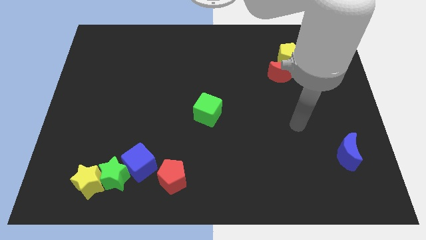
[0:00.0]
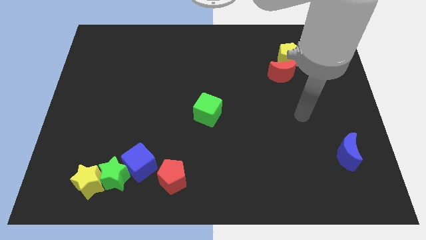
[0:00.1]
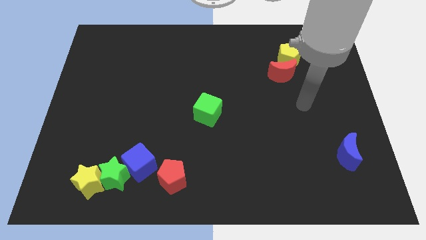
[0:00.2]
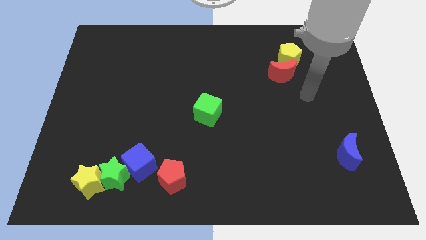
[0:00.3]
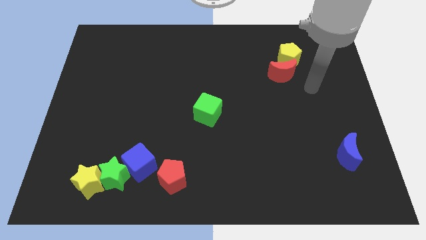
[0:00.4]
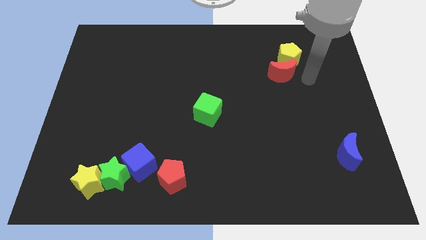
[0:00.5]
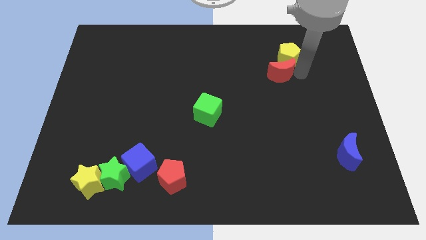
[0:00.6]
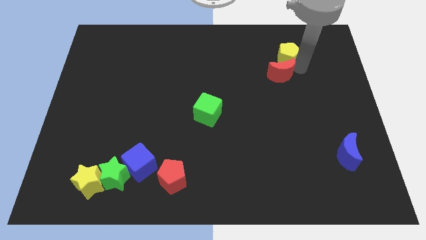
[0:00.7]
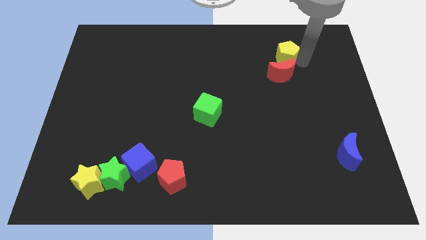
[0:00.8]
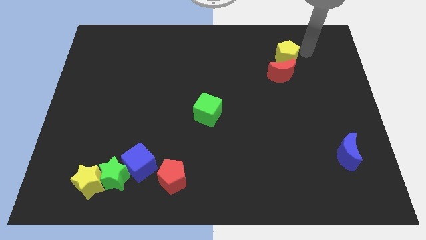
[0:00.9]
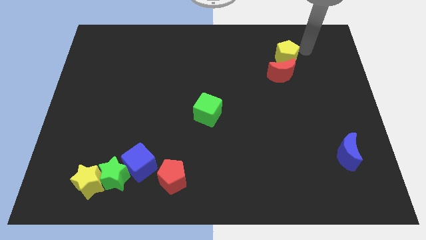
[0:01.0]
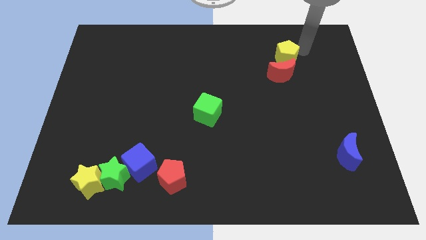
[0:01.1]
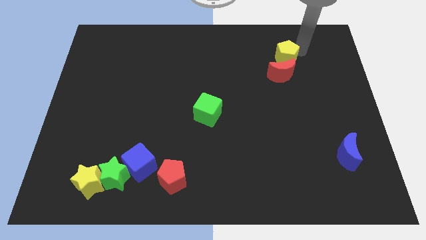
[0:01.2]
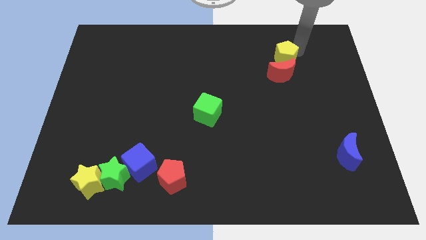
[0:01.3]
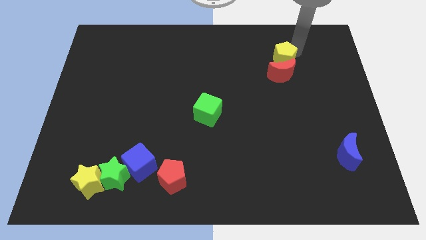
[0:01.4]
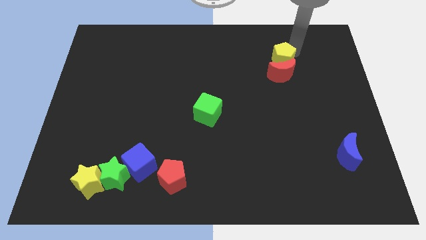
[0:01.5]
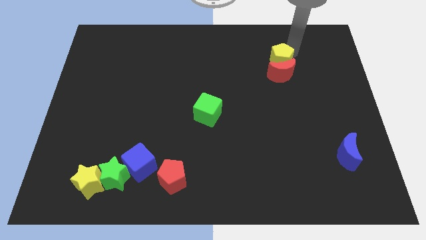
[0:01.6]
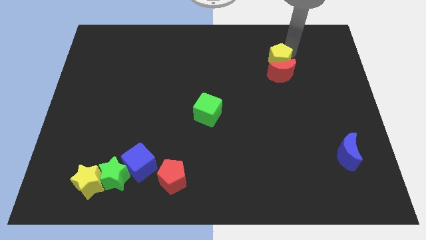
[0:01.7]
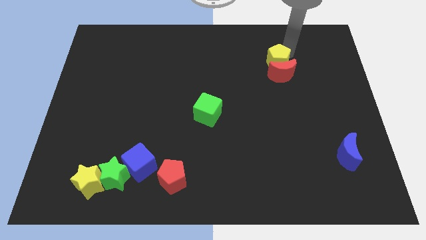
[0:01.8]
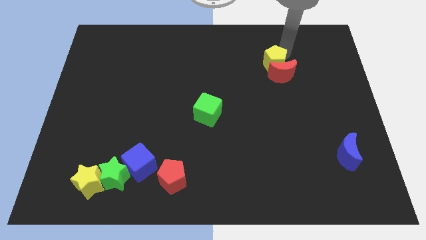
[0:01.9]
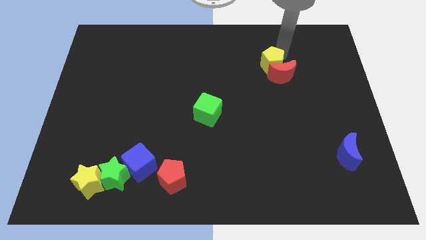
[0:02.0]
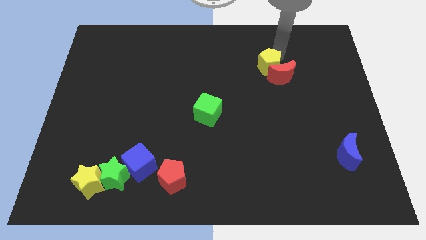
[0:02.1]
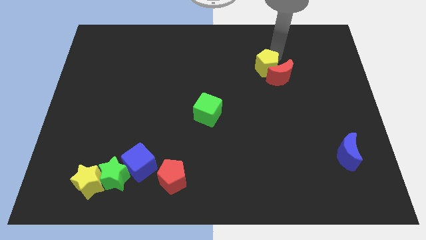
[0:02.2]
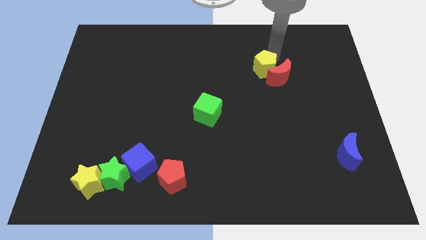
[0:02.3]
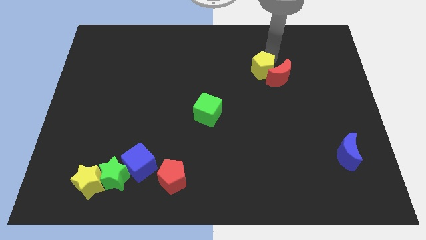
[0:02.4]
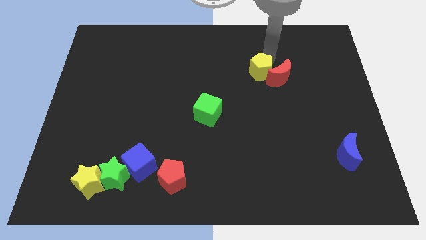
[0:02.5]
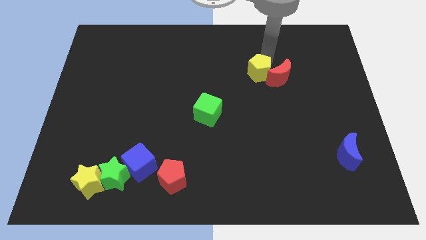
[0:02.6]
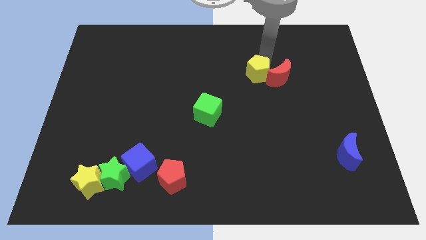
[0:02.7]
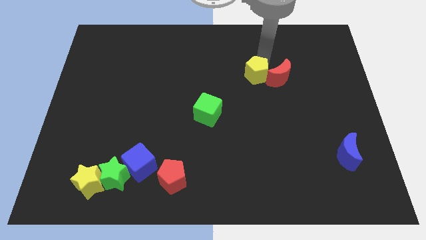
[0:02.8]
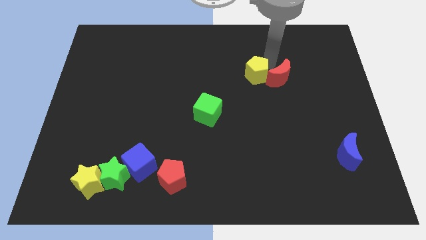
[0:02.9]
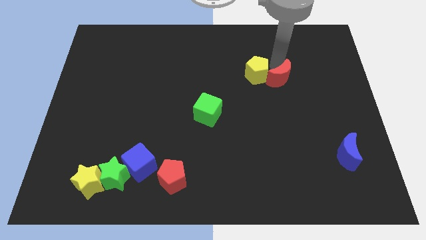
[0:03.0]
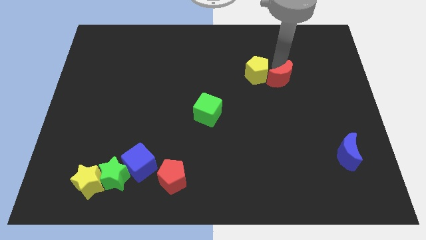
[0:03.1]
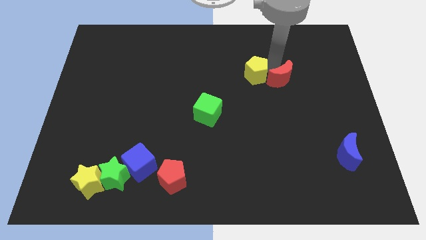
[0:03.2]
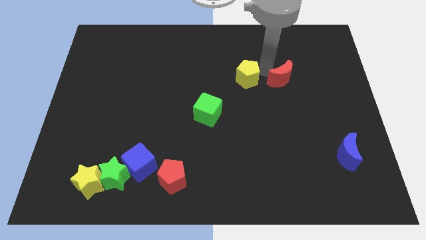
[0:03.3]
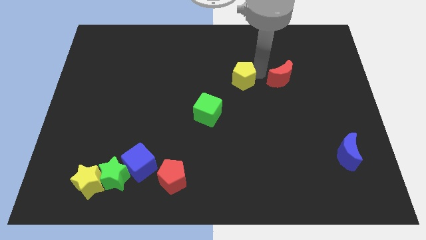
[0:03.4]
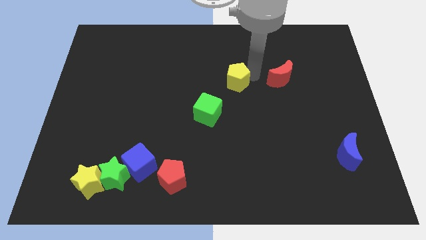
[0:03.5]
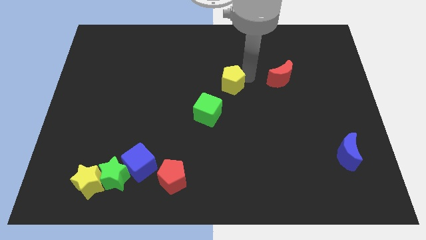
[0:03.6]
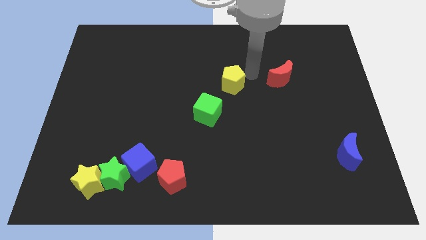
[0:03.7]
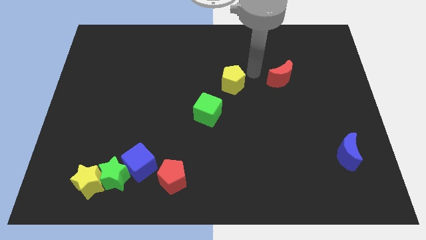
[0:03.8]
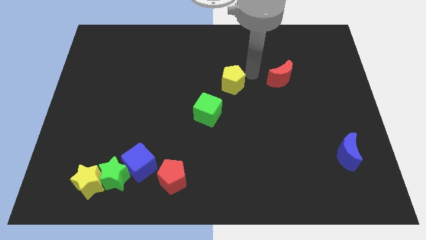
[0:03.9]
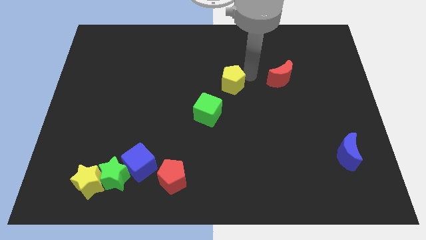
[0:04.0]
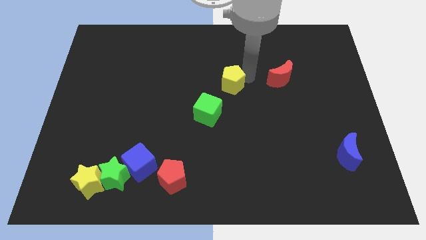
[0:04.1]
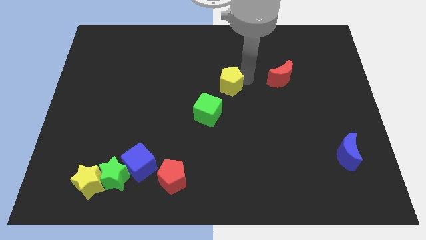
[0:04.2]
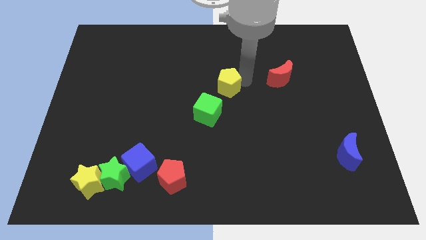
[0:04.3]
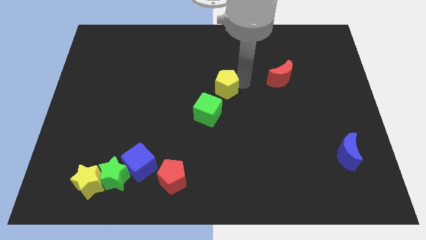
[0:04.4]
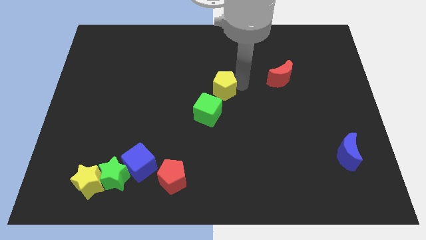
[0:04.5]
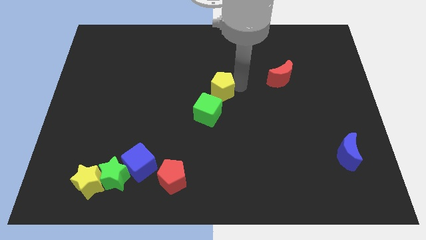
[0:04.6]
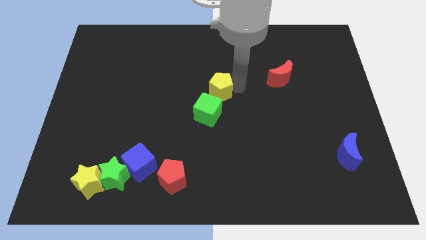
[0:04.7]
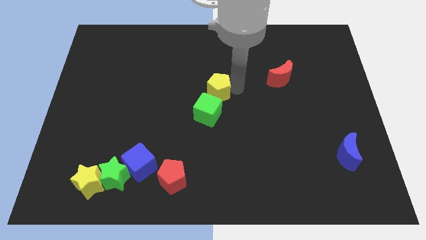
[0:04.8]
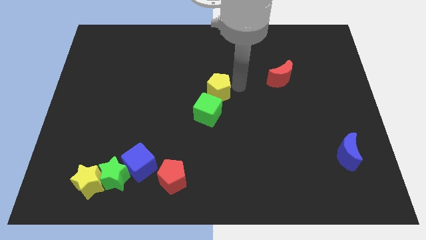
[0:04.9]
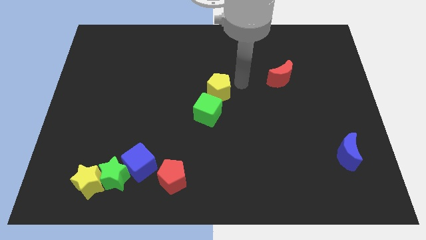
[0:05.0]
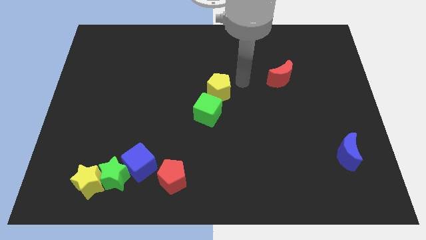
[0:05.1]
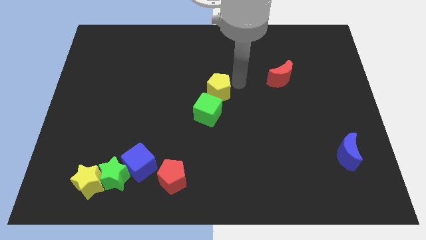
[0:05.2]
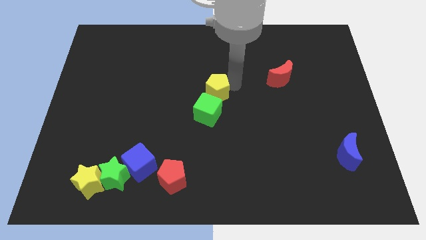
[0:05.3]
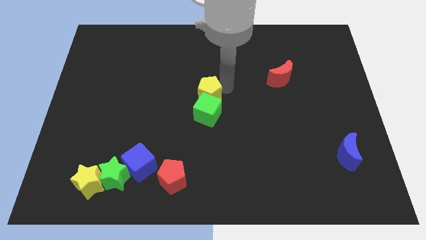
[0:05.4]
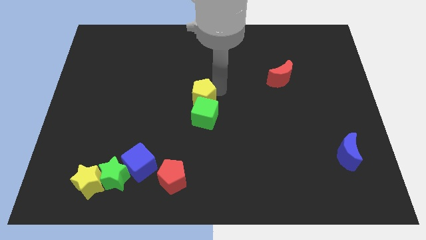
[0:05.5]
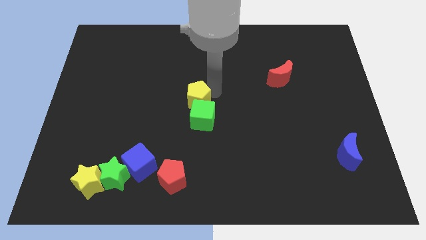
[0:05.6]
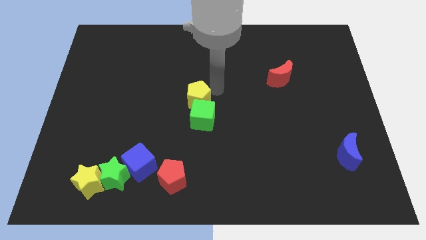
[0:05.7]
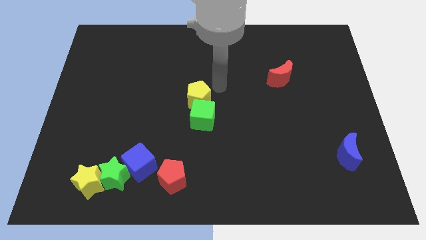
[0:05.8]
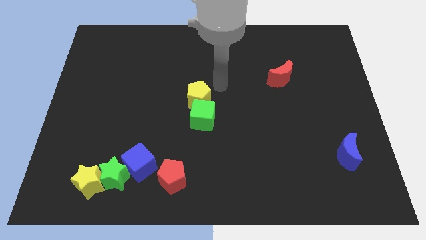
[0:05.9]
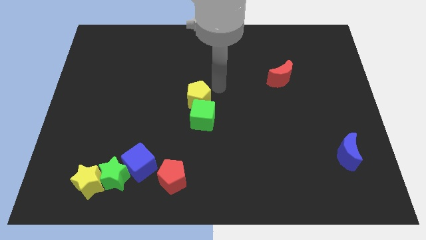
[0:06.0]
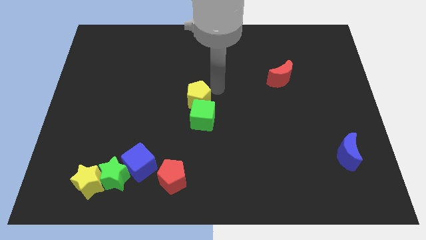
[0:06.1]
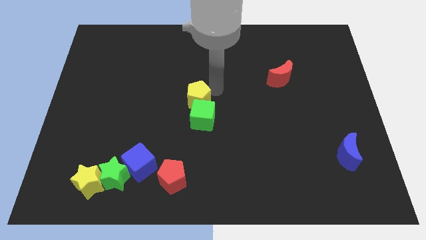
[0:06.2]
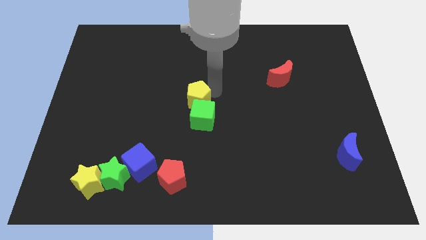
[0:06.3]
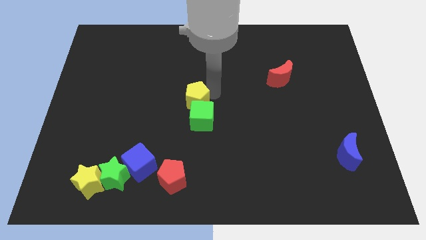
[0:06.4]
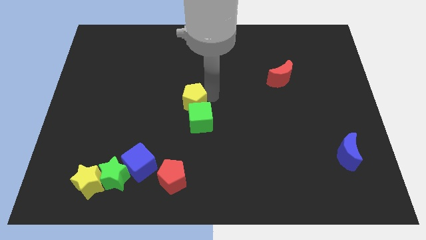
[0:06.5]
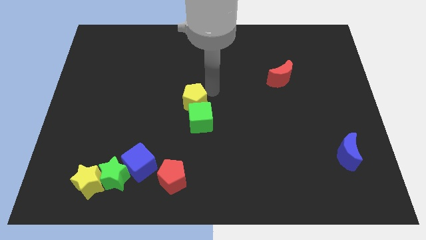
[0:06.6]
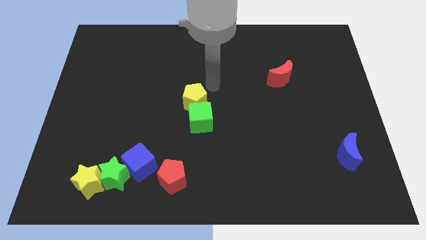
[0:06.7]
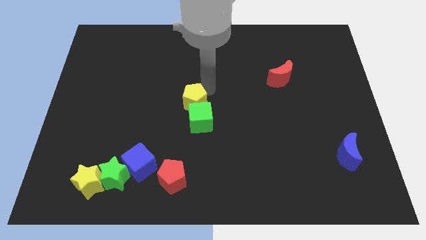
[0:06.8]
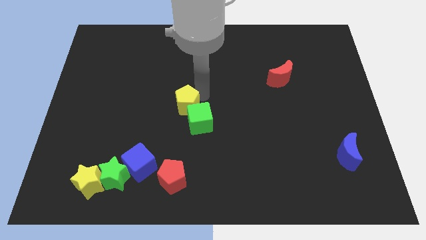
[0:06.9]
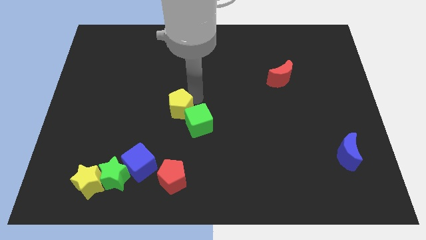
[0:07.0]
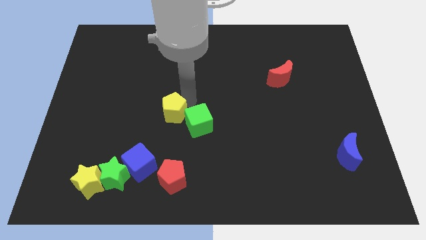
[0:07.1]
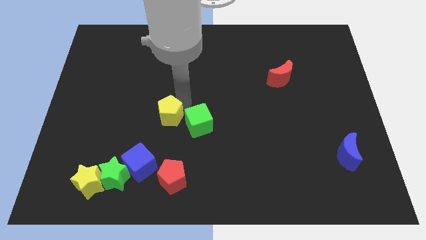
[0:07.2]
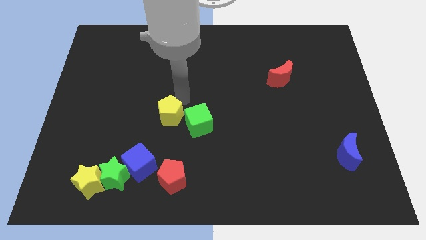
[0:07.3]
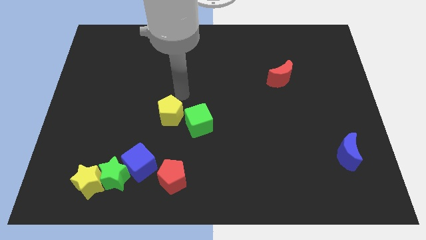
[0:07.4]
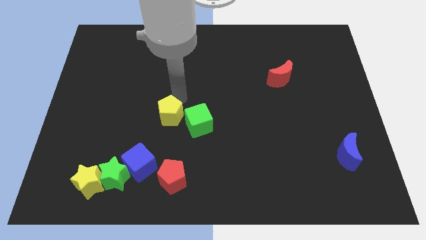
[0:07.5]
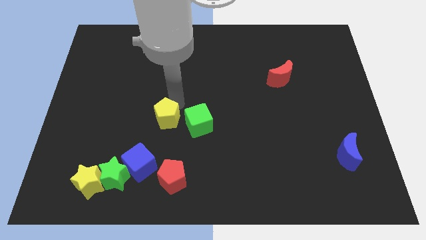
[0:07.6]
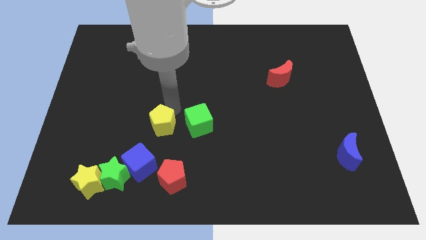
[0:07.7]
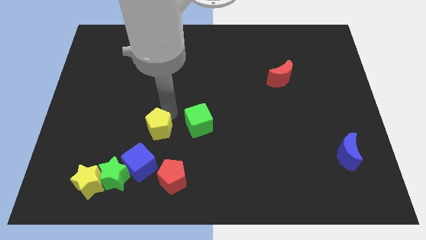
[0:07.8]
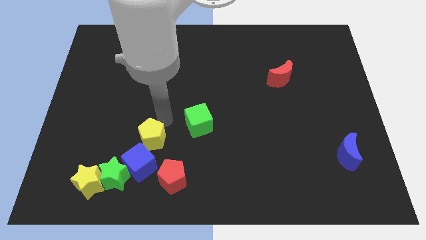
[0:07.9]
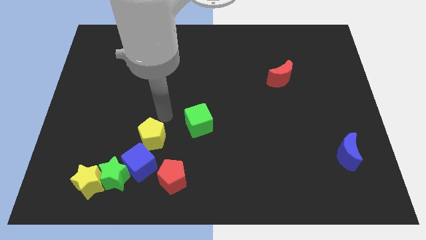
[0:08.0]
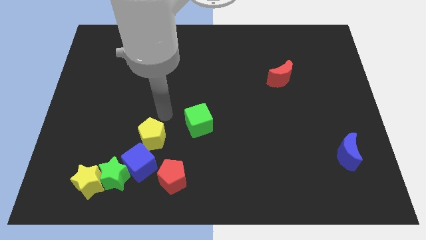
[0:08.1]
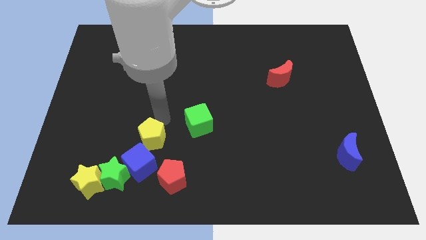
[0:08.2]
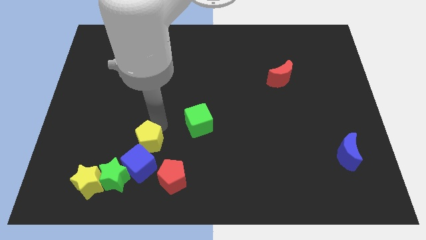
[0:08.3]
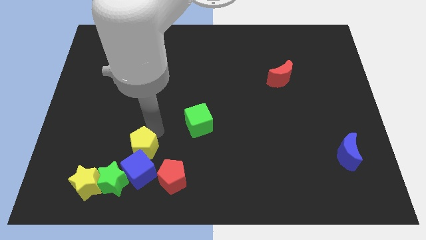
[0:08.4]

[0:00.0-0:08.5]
slide the yellow pentagon to the blue cube
